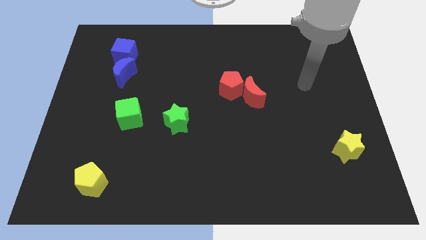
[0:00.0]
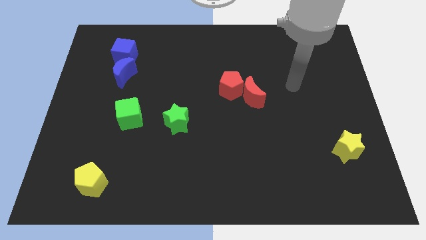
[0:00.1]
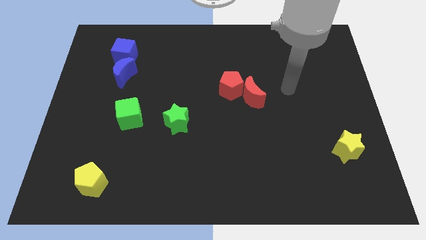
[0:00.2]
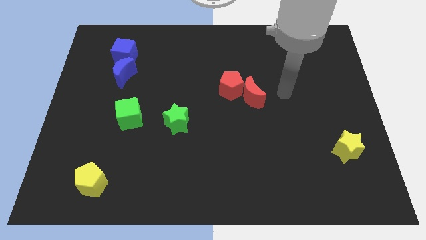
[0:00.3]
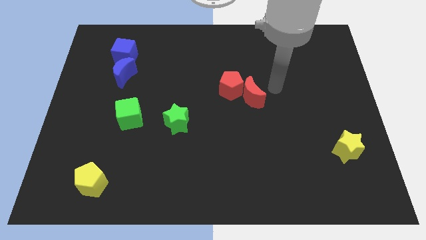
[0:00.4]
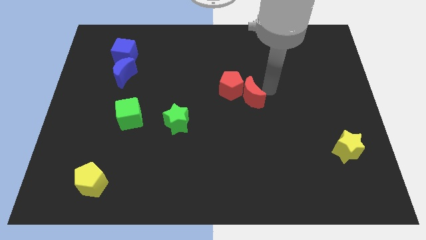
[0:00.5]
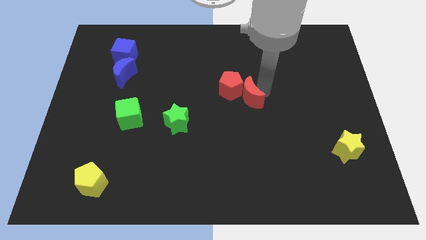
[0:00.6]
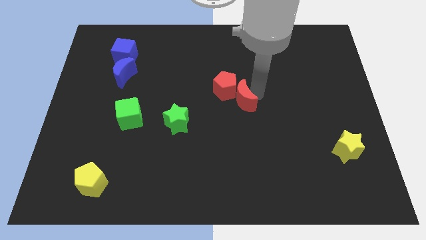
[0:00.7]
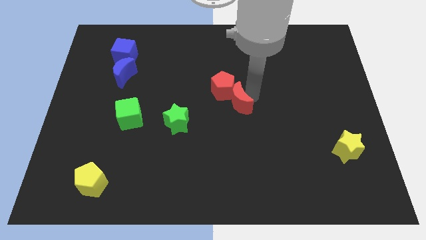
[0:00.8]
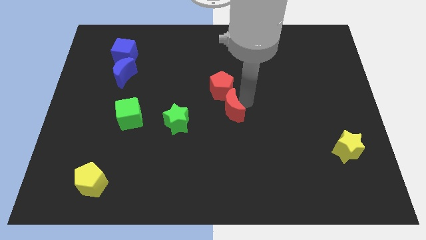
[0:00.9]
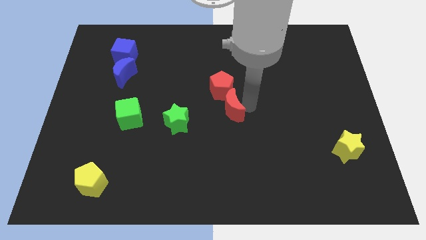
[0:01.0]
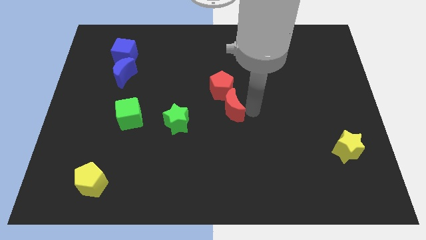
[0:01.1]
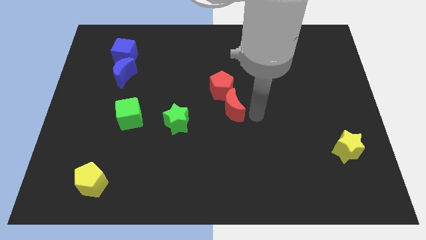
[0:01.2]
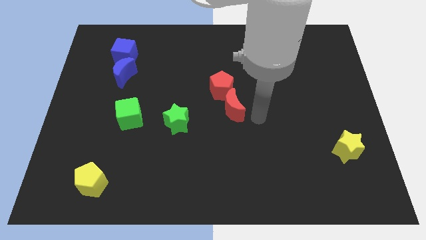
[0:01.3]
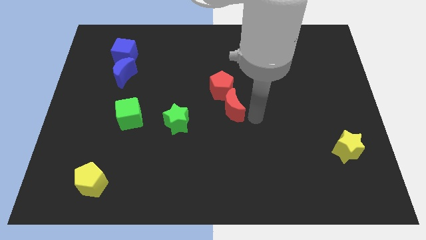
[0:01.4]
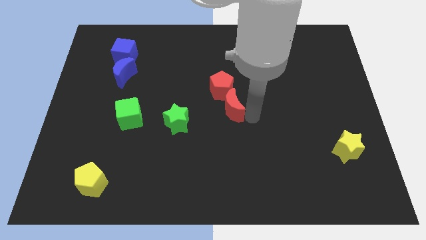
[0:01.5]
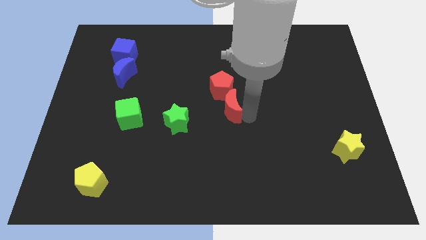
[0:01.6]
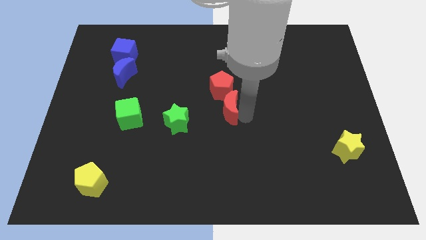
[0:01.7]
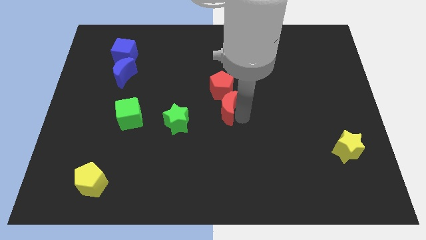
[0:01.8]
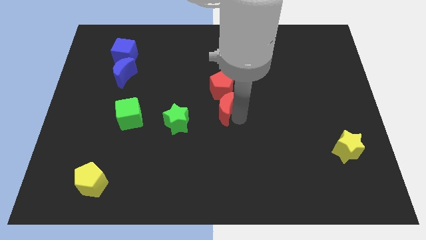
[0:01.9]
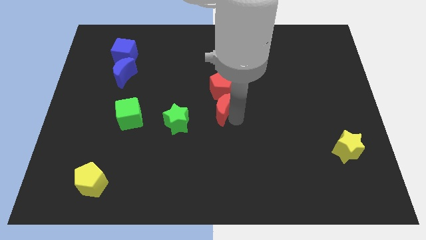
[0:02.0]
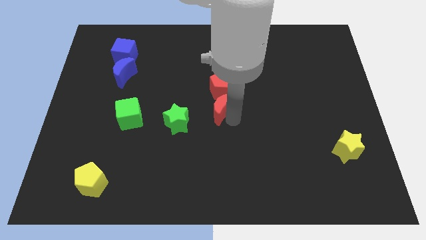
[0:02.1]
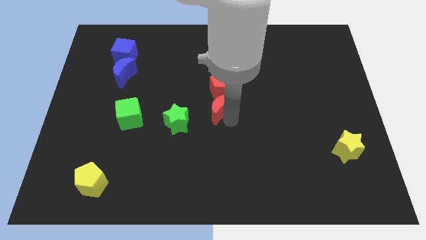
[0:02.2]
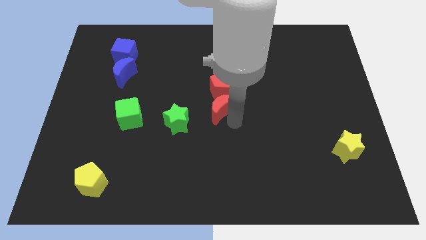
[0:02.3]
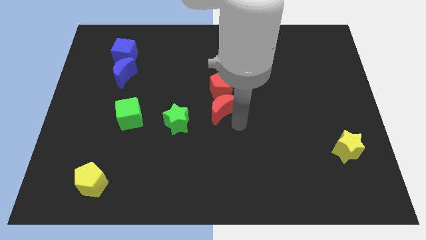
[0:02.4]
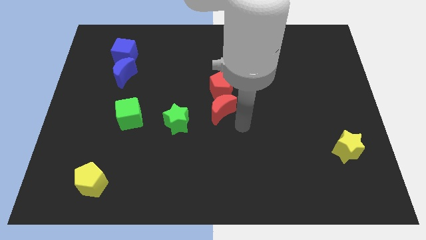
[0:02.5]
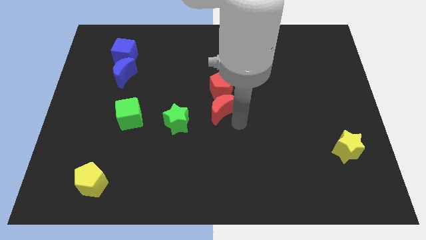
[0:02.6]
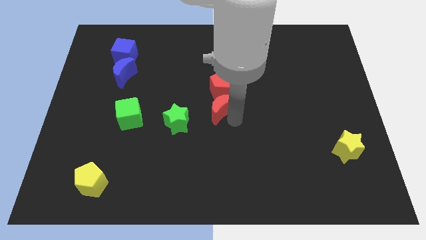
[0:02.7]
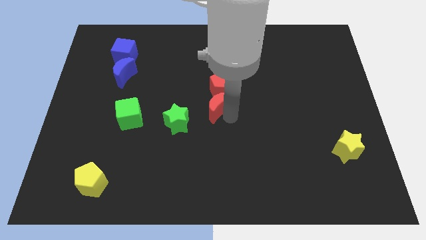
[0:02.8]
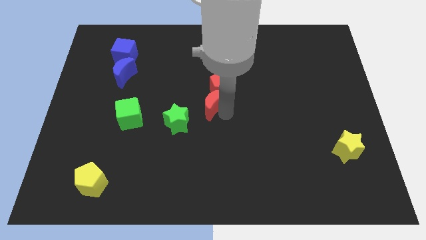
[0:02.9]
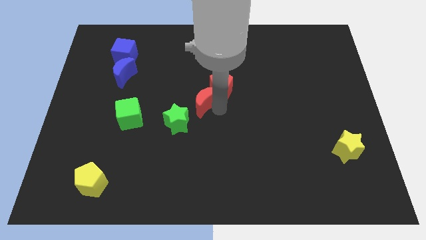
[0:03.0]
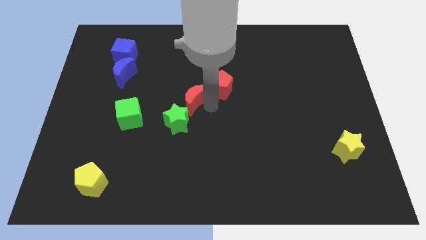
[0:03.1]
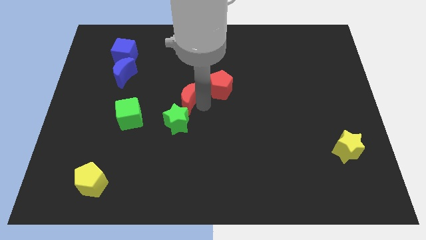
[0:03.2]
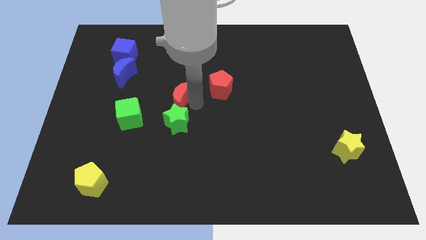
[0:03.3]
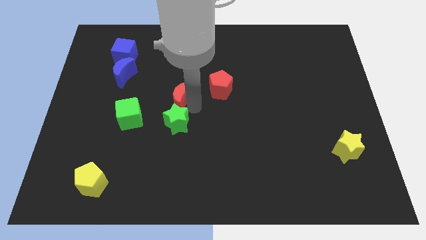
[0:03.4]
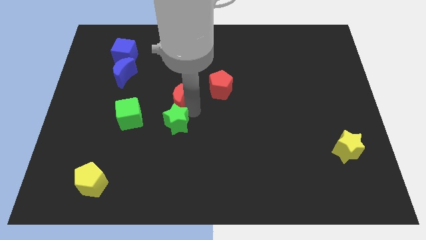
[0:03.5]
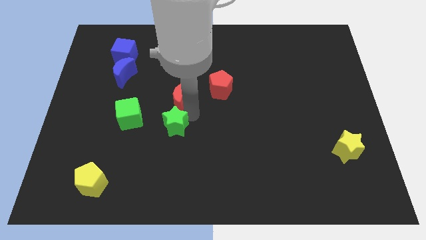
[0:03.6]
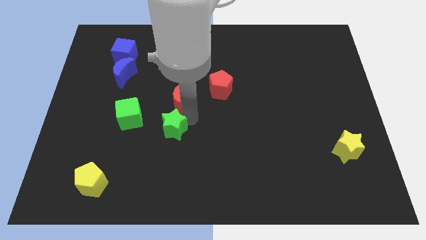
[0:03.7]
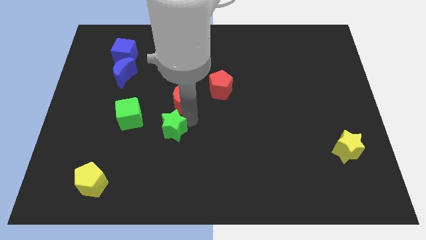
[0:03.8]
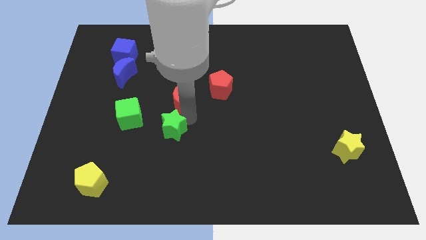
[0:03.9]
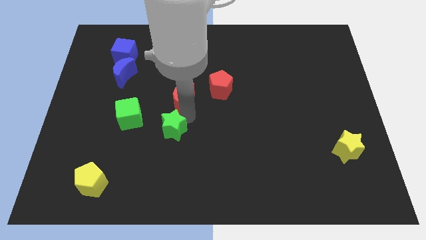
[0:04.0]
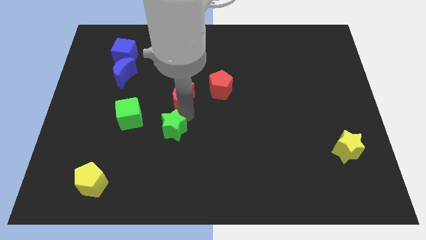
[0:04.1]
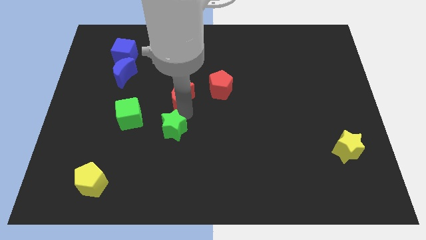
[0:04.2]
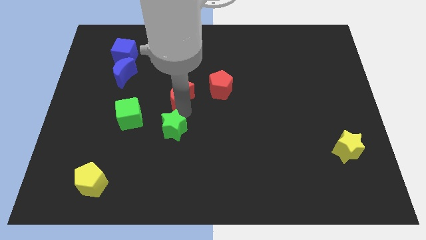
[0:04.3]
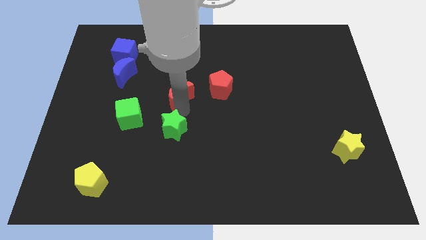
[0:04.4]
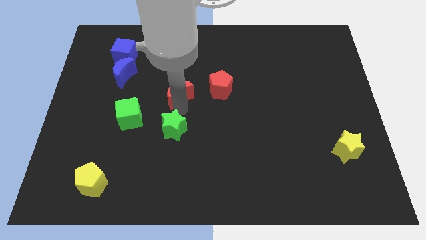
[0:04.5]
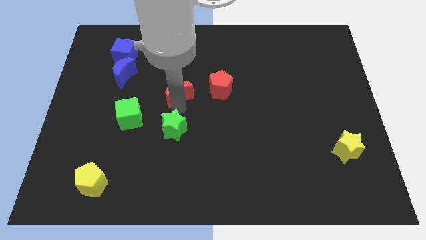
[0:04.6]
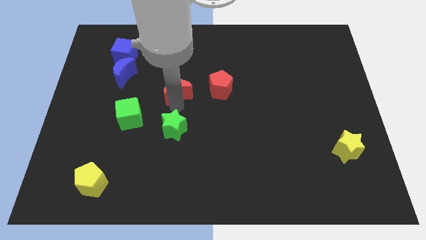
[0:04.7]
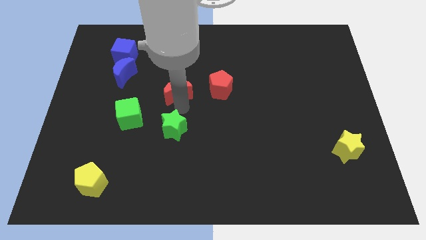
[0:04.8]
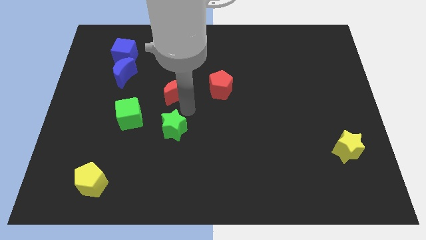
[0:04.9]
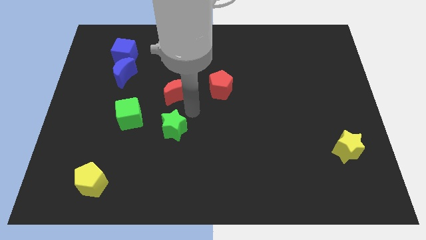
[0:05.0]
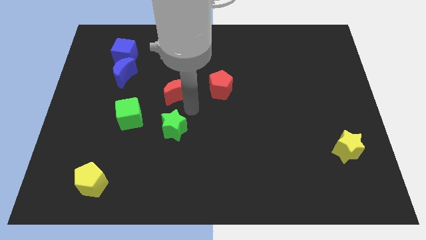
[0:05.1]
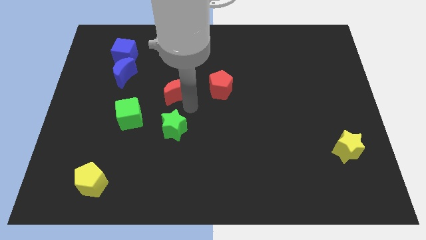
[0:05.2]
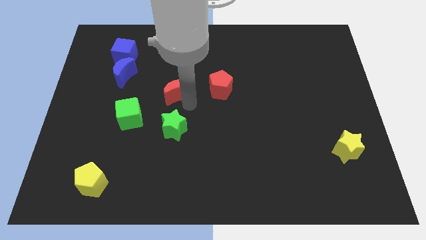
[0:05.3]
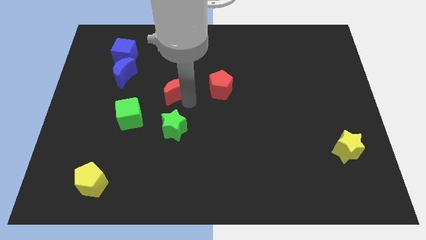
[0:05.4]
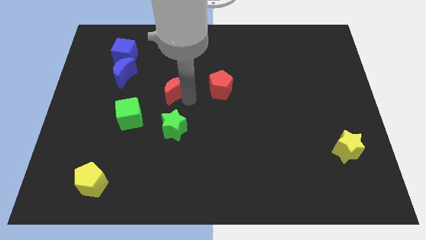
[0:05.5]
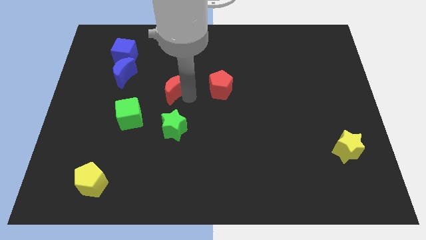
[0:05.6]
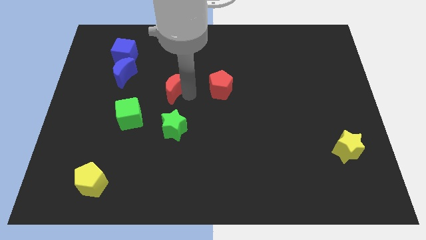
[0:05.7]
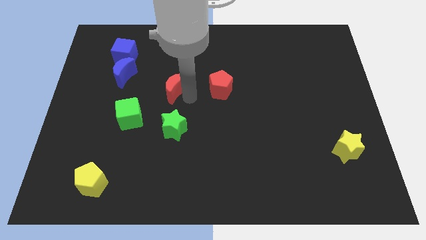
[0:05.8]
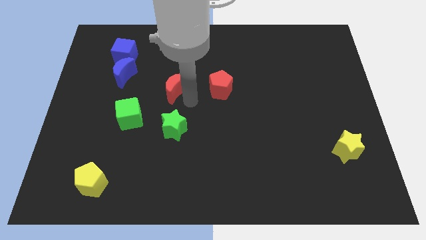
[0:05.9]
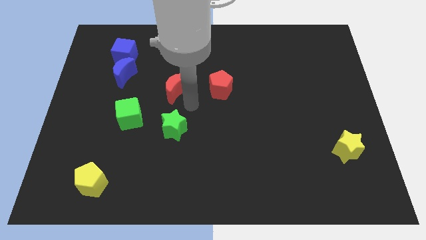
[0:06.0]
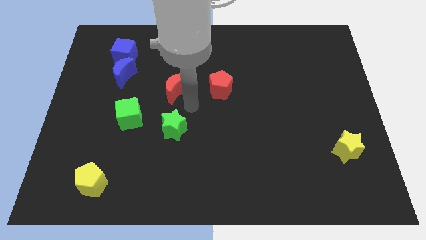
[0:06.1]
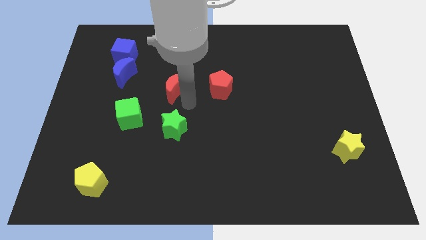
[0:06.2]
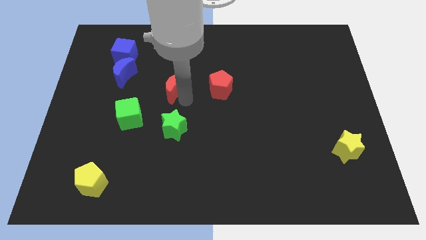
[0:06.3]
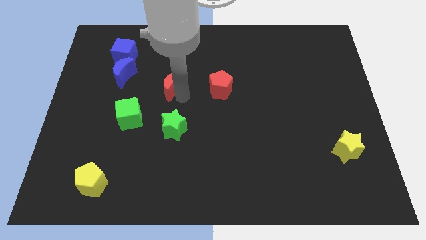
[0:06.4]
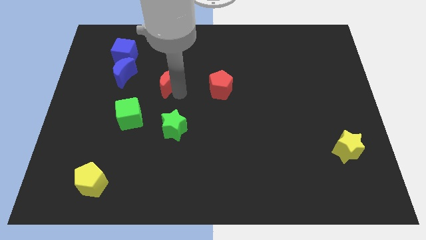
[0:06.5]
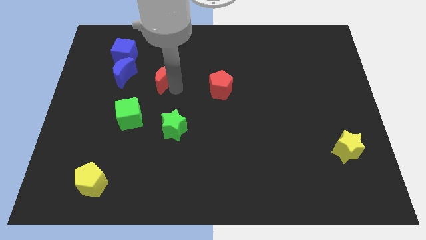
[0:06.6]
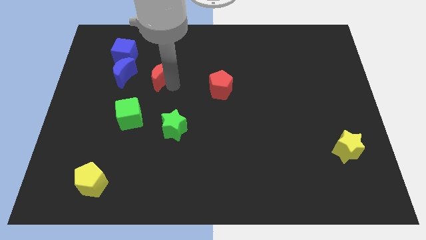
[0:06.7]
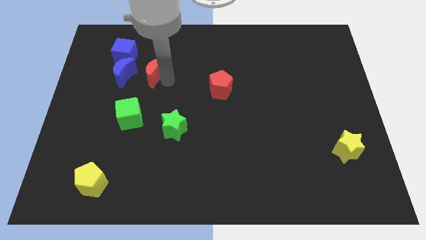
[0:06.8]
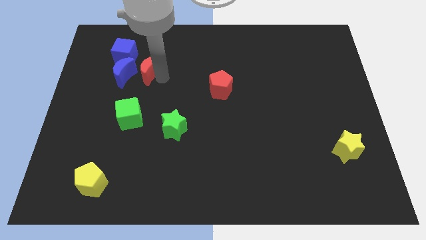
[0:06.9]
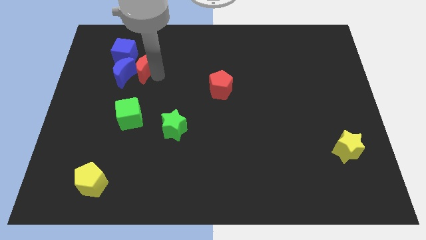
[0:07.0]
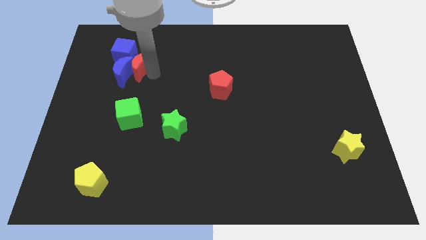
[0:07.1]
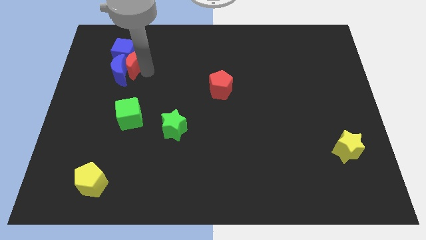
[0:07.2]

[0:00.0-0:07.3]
slide the red moon close to the blue cube

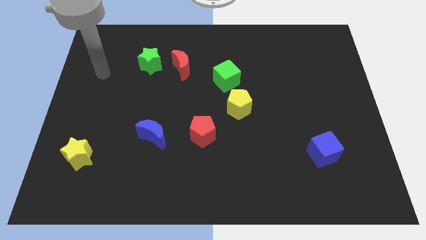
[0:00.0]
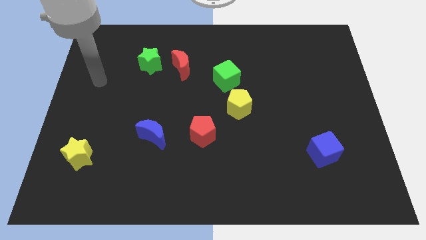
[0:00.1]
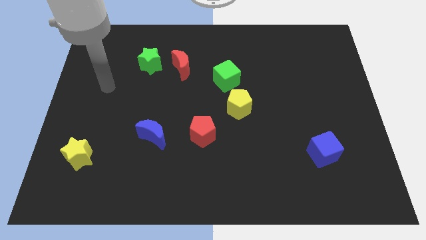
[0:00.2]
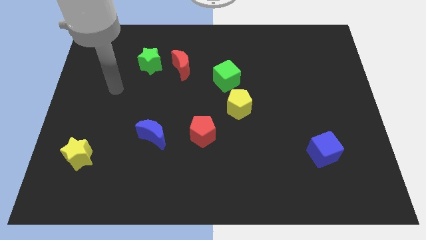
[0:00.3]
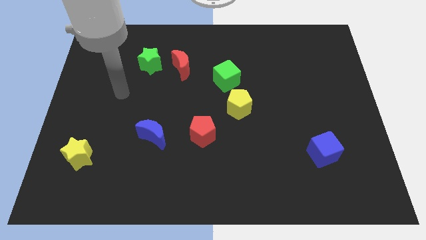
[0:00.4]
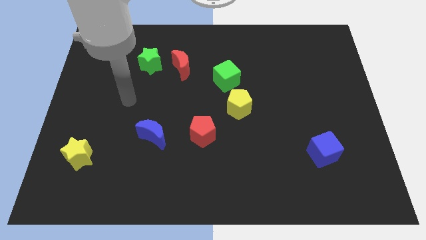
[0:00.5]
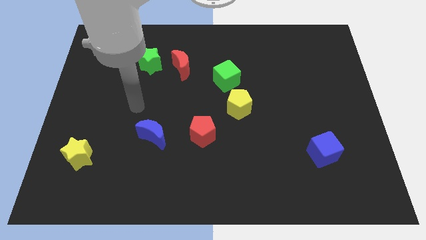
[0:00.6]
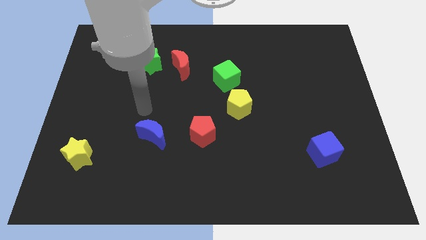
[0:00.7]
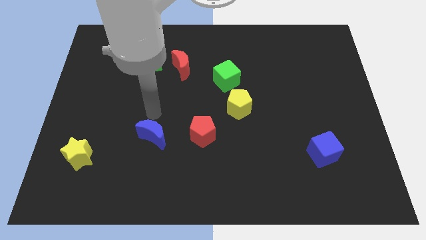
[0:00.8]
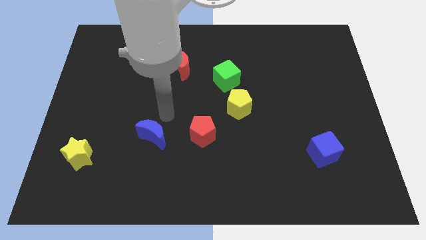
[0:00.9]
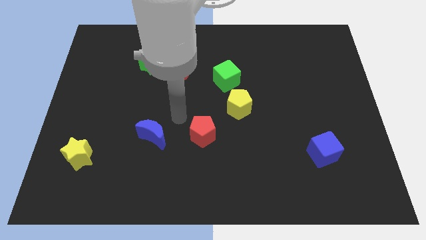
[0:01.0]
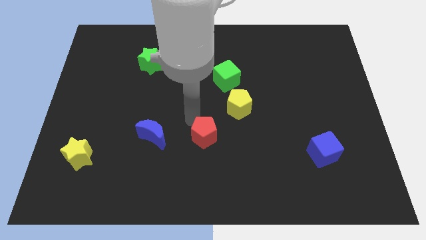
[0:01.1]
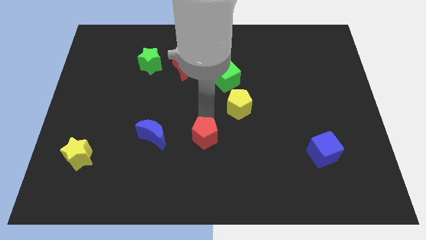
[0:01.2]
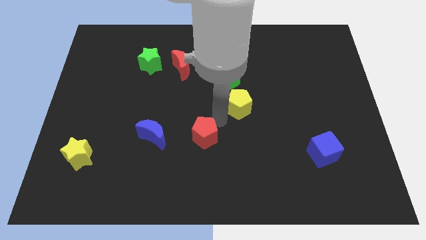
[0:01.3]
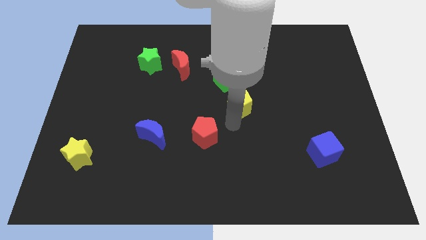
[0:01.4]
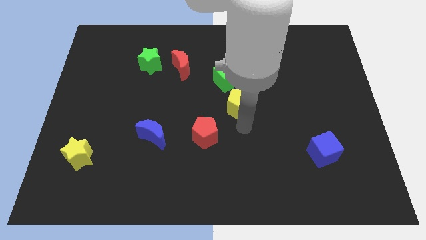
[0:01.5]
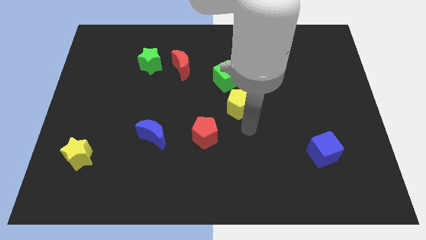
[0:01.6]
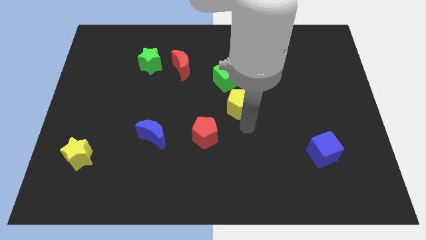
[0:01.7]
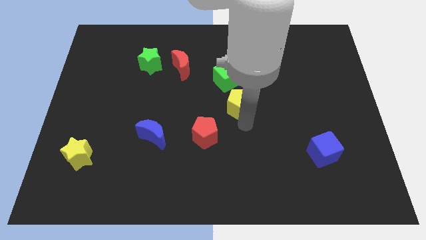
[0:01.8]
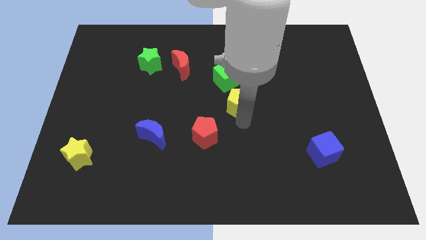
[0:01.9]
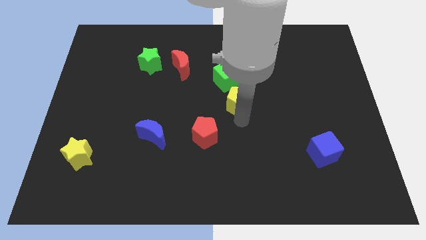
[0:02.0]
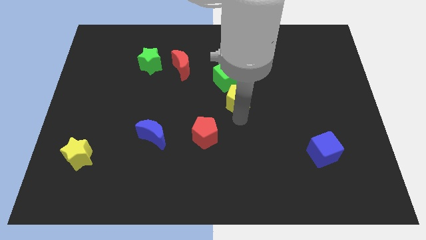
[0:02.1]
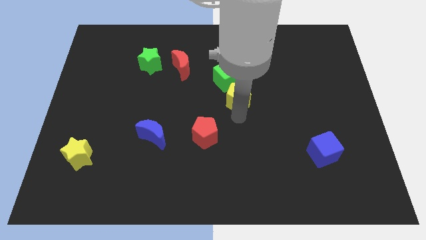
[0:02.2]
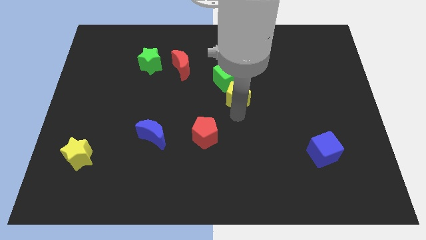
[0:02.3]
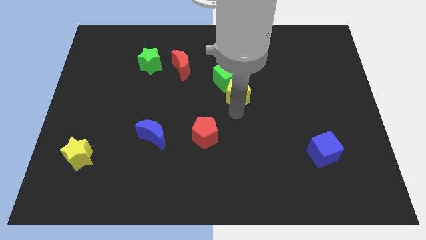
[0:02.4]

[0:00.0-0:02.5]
put the yellow pentagon to the green cube
